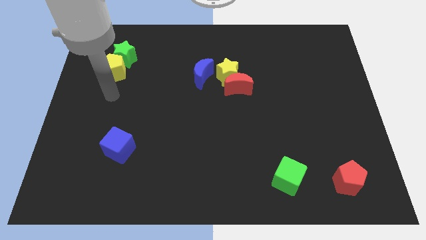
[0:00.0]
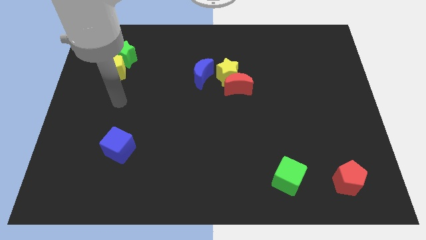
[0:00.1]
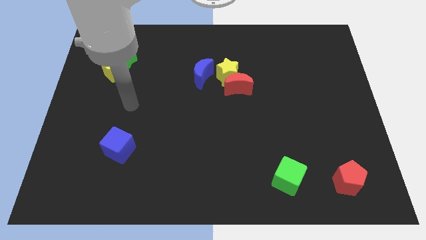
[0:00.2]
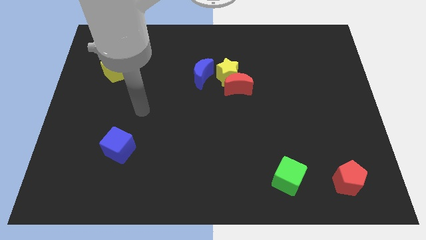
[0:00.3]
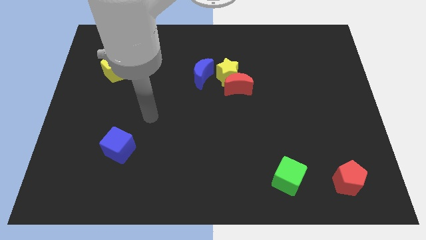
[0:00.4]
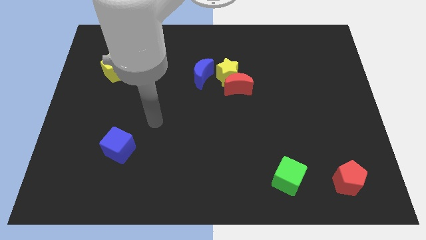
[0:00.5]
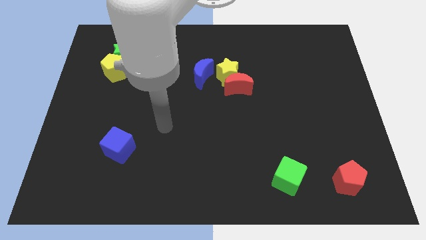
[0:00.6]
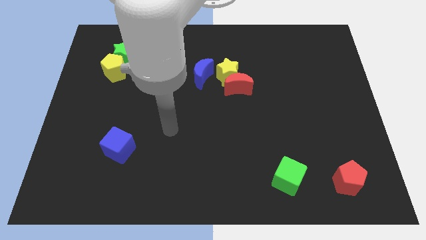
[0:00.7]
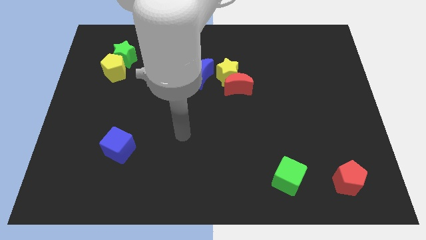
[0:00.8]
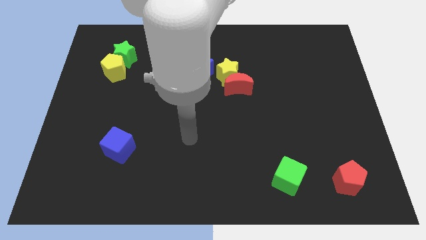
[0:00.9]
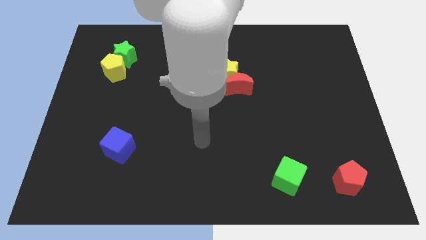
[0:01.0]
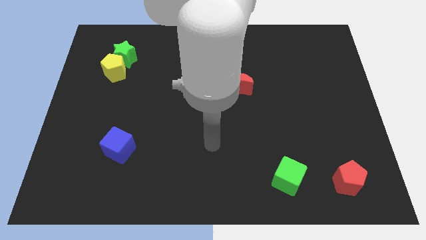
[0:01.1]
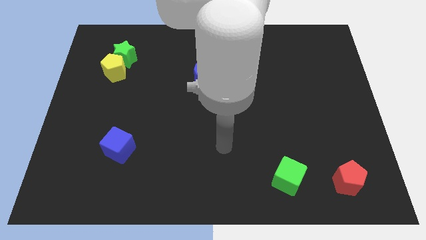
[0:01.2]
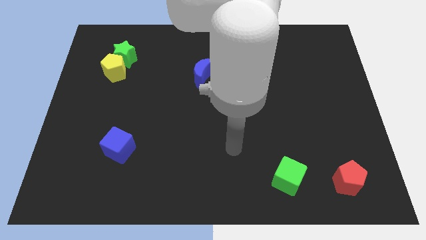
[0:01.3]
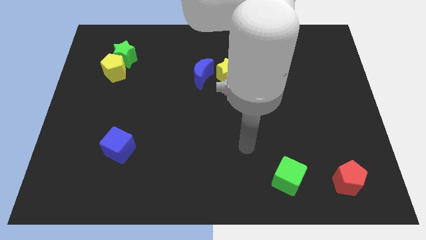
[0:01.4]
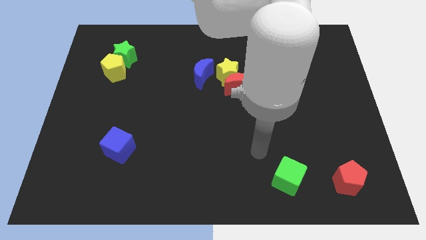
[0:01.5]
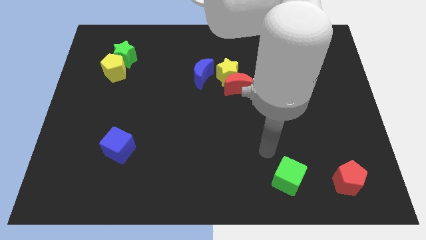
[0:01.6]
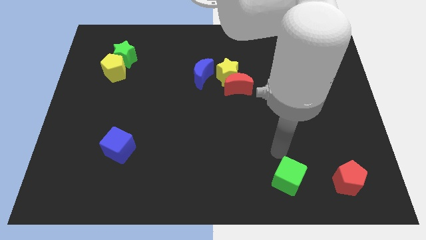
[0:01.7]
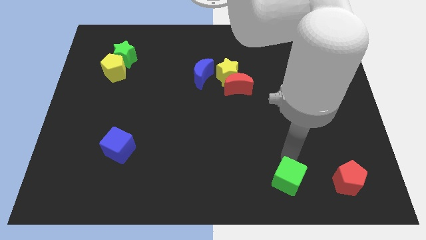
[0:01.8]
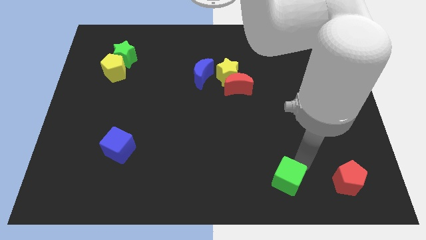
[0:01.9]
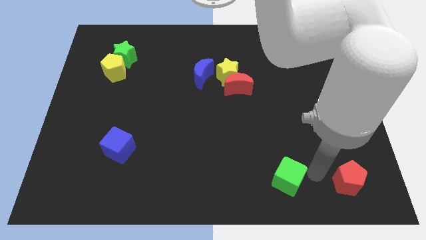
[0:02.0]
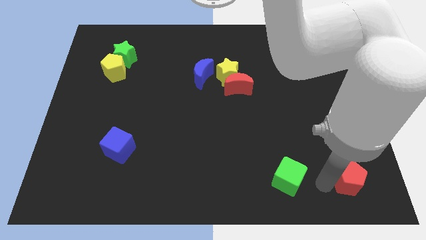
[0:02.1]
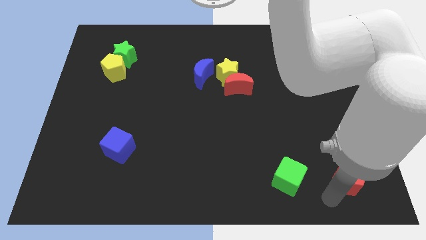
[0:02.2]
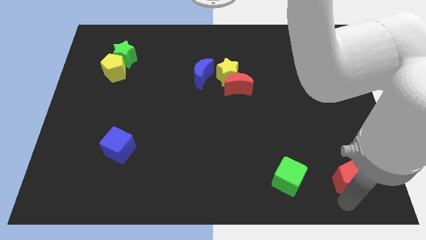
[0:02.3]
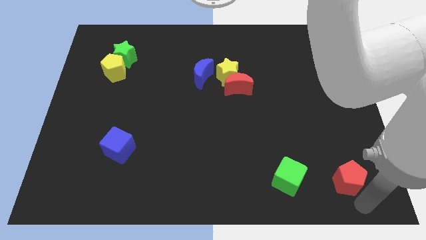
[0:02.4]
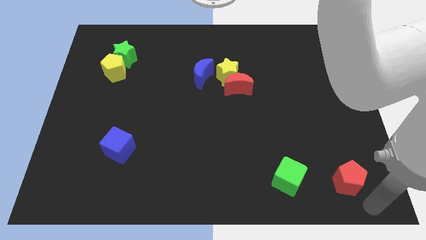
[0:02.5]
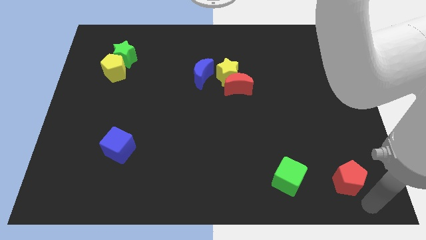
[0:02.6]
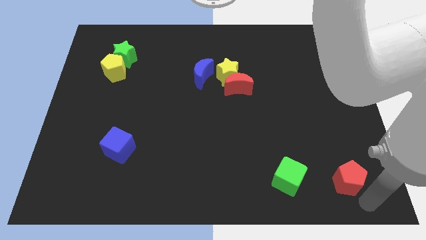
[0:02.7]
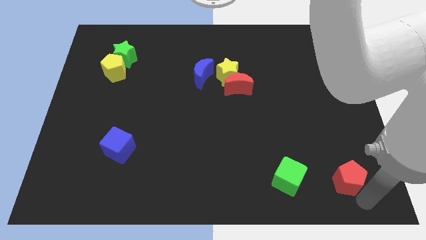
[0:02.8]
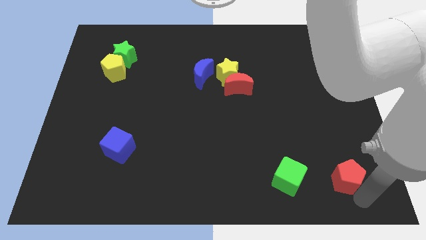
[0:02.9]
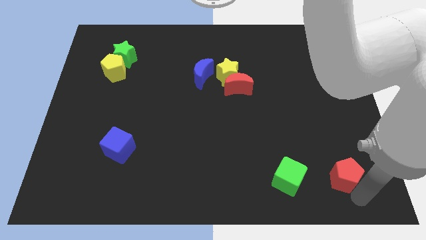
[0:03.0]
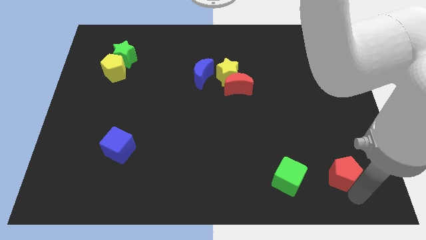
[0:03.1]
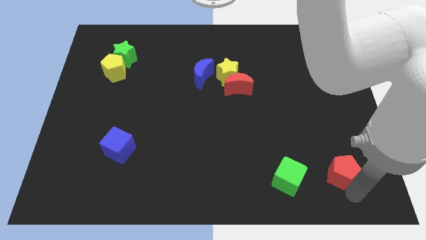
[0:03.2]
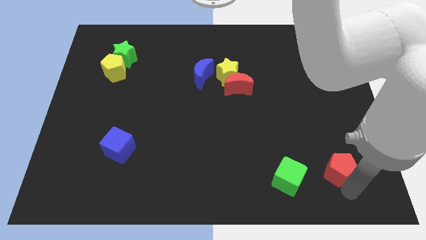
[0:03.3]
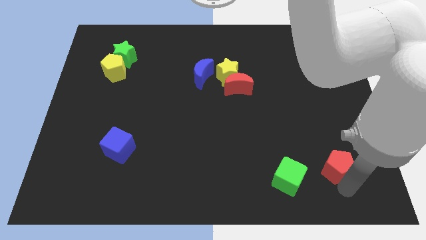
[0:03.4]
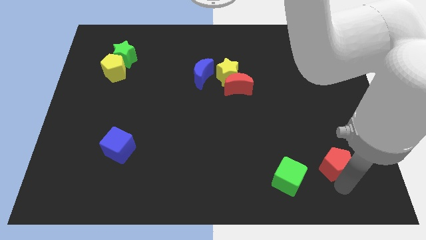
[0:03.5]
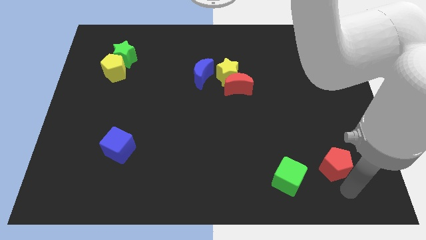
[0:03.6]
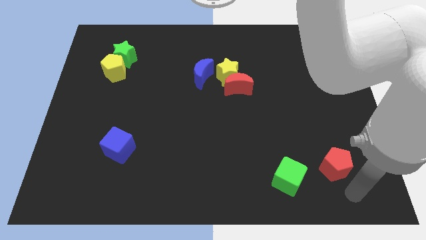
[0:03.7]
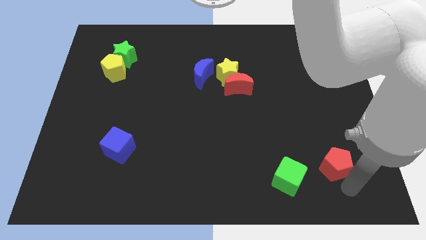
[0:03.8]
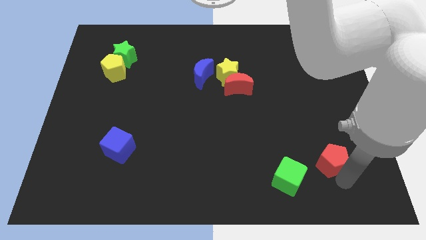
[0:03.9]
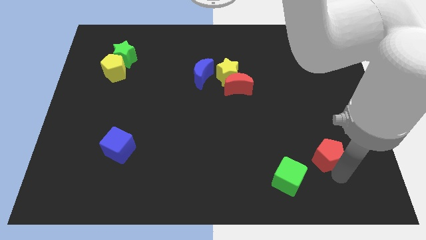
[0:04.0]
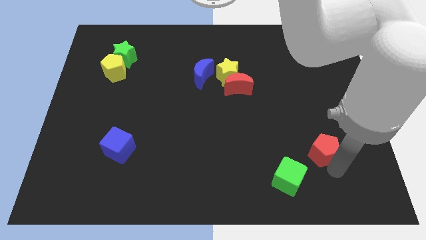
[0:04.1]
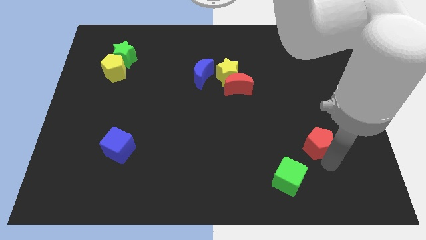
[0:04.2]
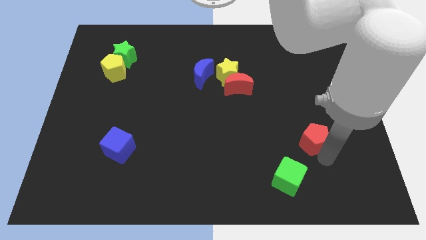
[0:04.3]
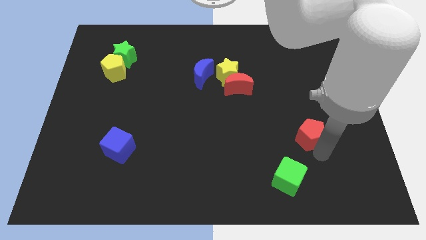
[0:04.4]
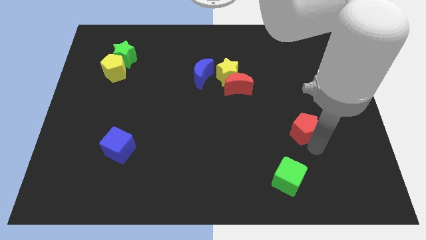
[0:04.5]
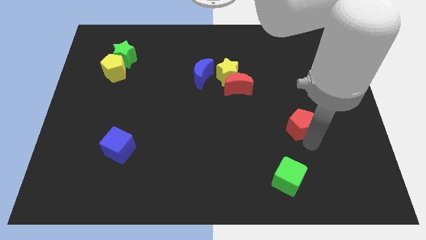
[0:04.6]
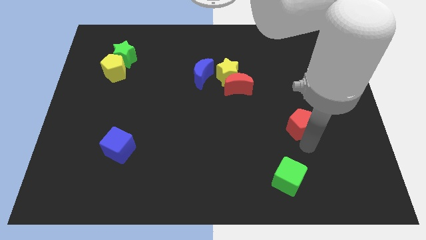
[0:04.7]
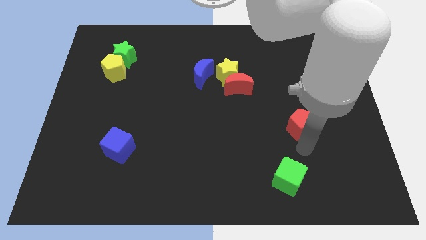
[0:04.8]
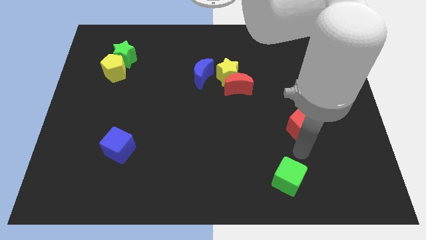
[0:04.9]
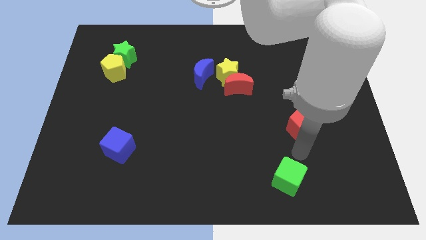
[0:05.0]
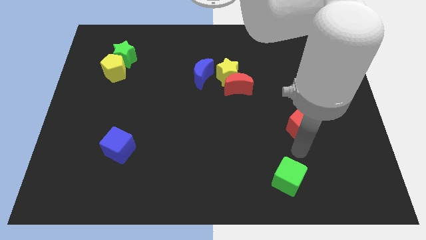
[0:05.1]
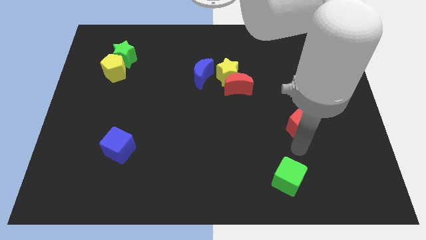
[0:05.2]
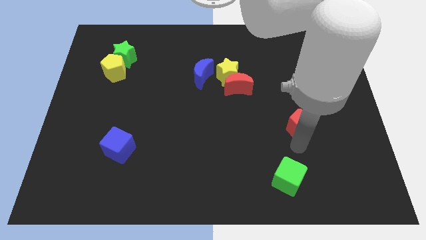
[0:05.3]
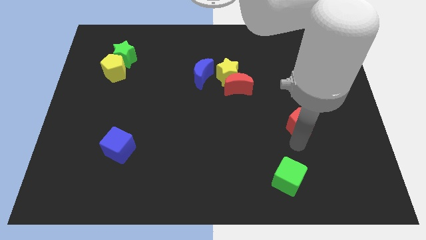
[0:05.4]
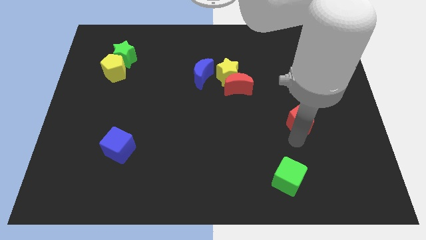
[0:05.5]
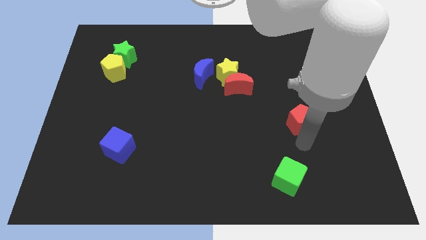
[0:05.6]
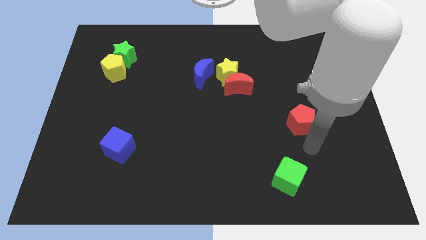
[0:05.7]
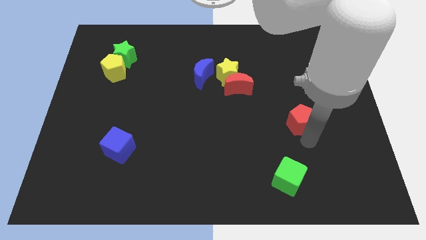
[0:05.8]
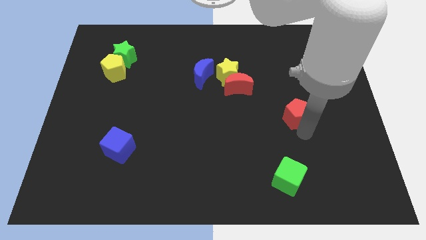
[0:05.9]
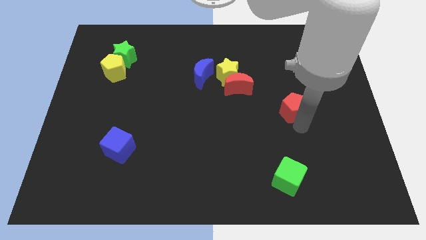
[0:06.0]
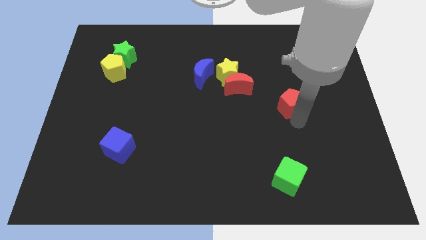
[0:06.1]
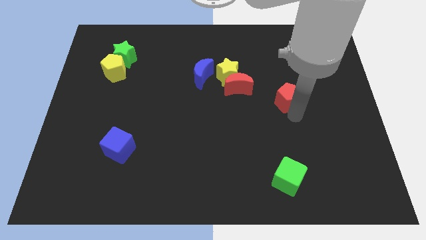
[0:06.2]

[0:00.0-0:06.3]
slide the red pentagon to the right of the red moon
